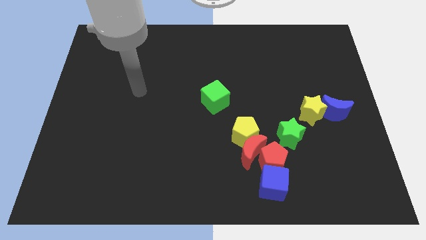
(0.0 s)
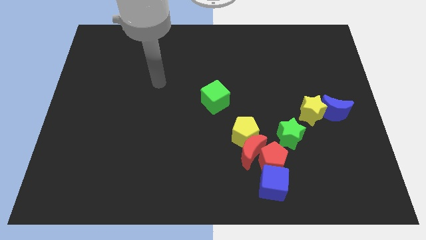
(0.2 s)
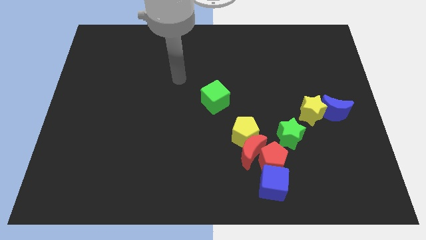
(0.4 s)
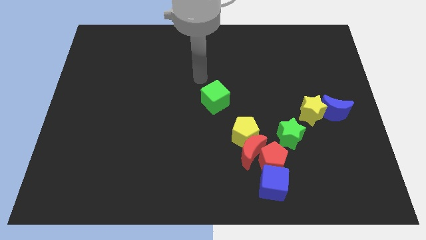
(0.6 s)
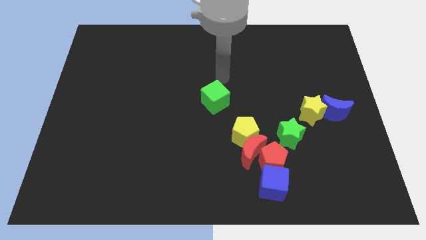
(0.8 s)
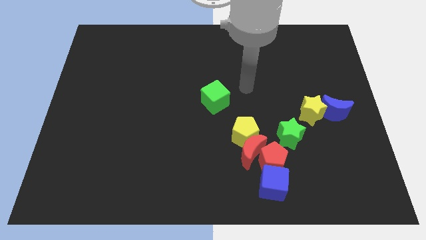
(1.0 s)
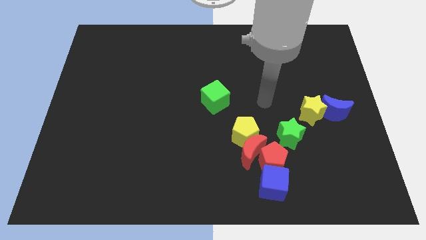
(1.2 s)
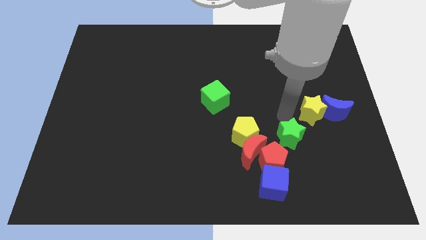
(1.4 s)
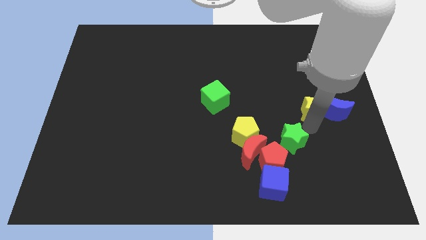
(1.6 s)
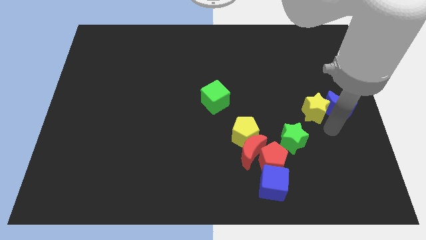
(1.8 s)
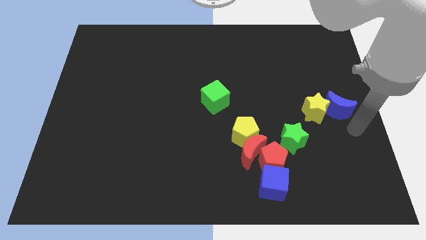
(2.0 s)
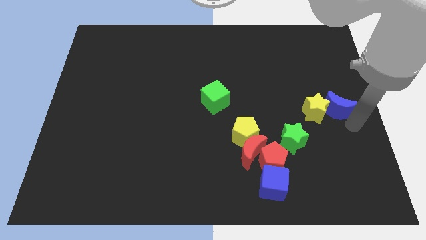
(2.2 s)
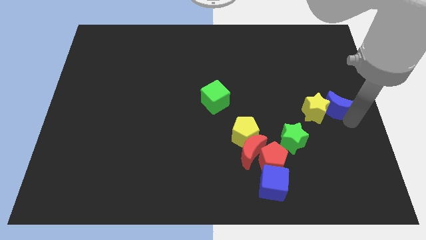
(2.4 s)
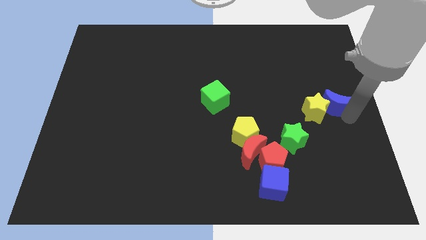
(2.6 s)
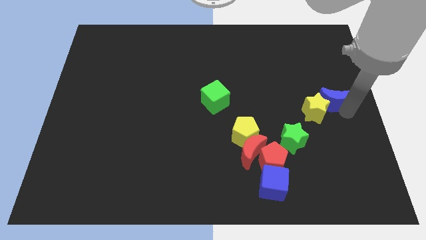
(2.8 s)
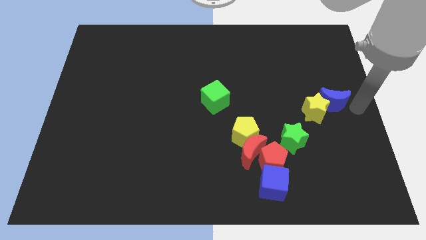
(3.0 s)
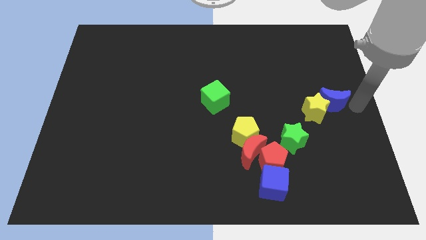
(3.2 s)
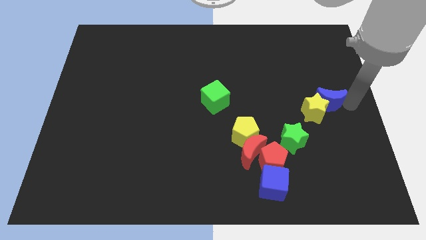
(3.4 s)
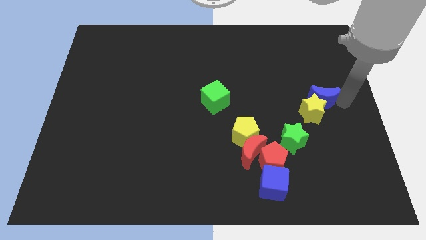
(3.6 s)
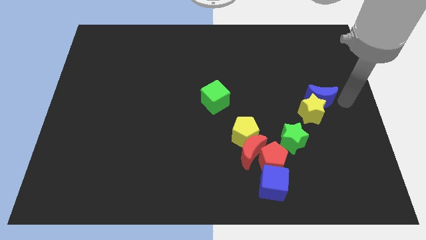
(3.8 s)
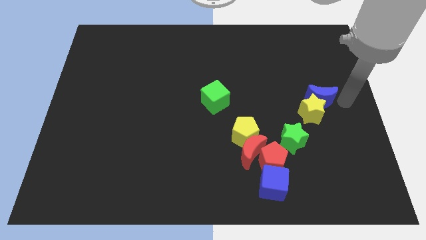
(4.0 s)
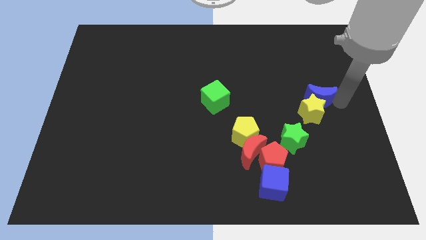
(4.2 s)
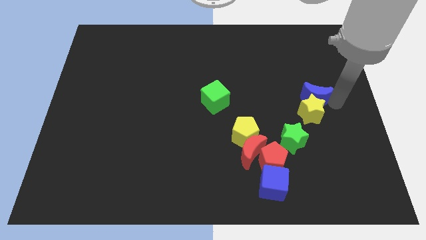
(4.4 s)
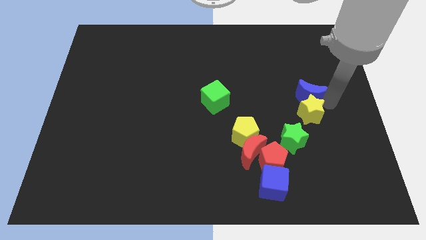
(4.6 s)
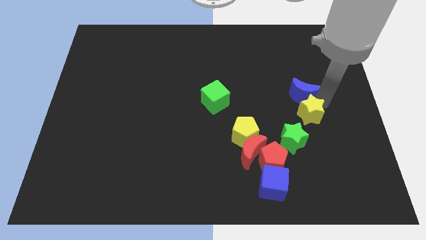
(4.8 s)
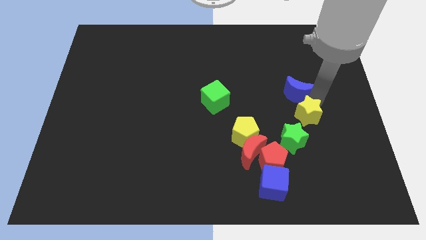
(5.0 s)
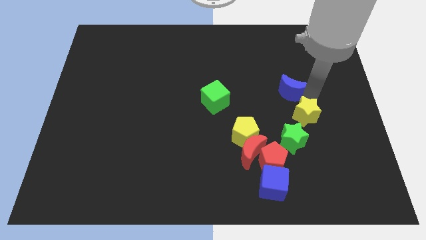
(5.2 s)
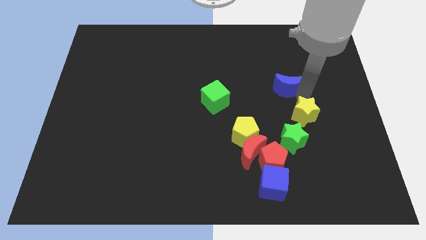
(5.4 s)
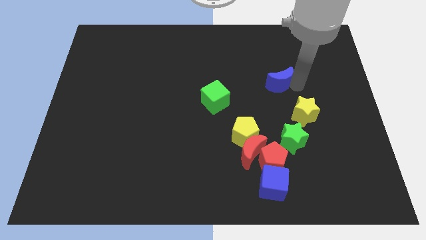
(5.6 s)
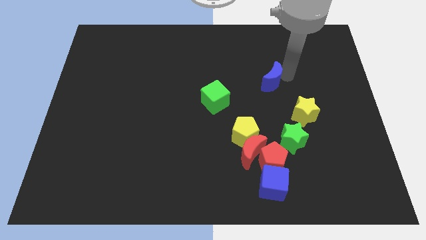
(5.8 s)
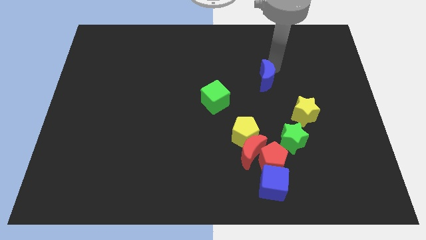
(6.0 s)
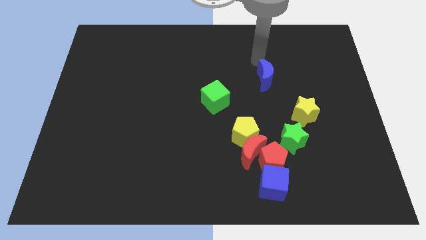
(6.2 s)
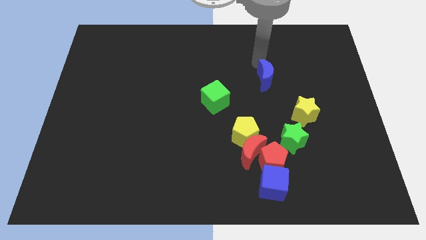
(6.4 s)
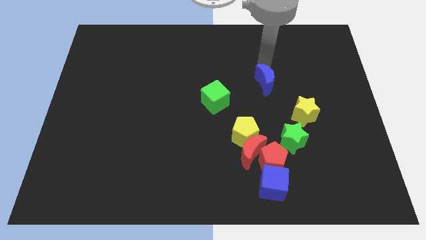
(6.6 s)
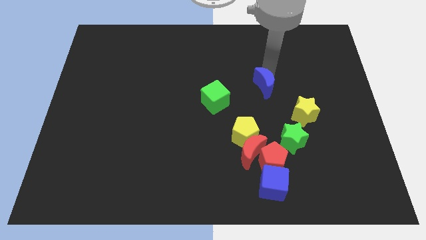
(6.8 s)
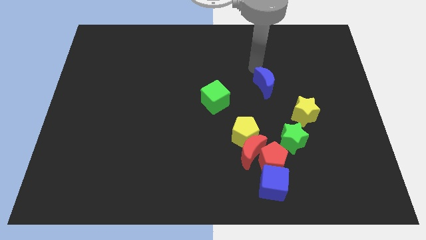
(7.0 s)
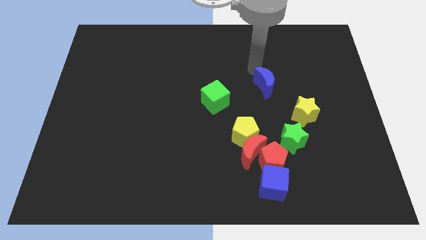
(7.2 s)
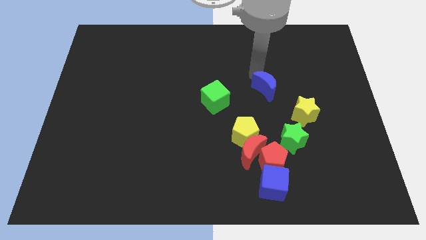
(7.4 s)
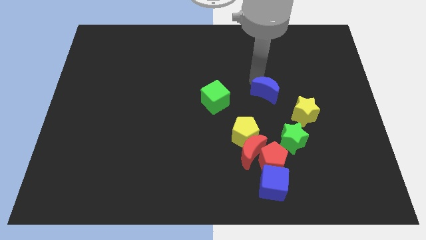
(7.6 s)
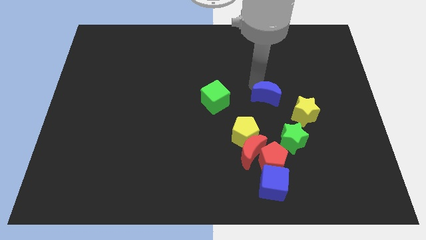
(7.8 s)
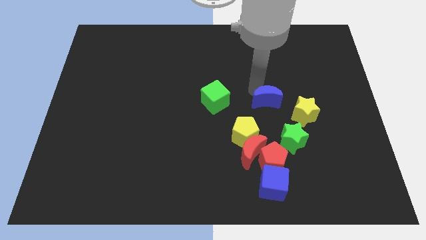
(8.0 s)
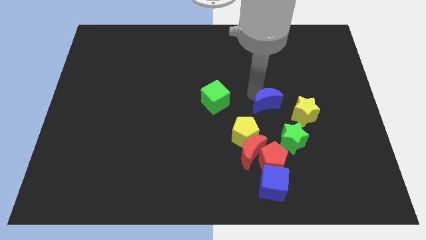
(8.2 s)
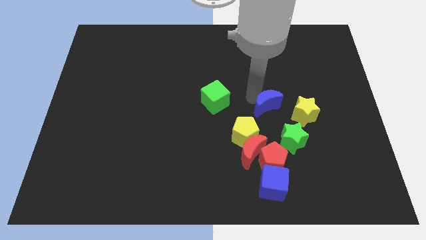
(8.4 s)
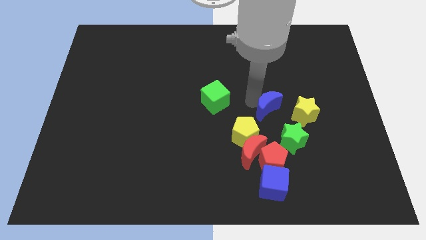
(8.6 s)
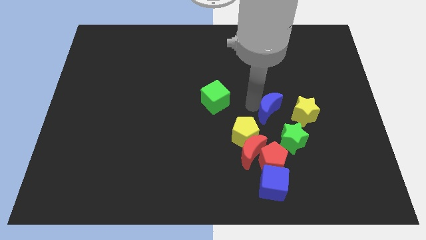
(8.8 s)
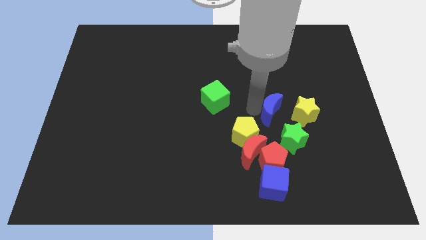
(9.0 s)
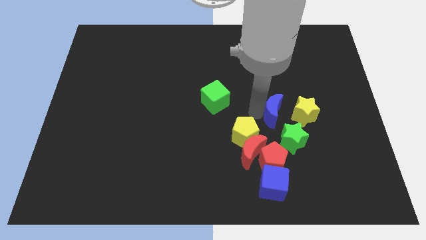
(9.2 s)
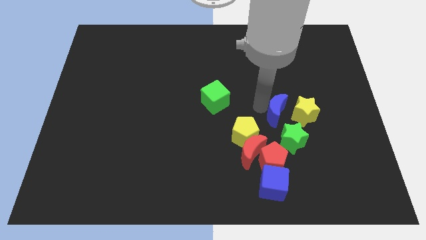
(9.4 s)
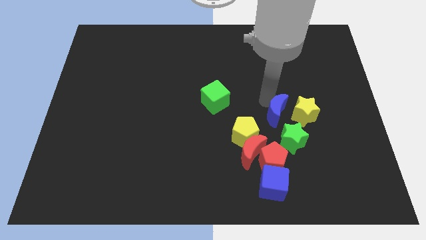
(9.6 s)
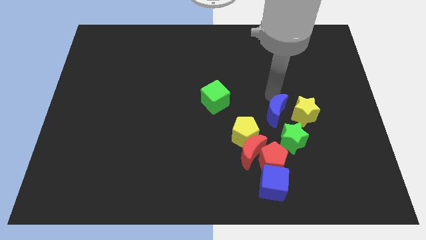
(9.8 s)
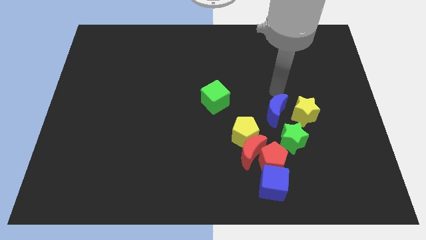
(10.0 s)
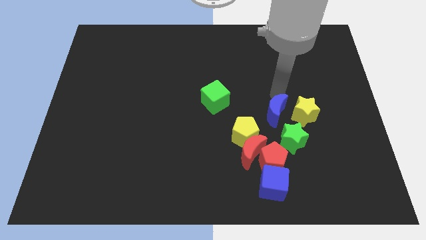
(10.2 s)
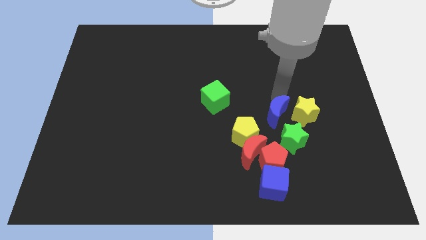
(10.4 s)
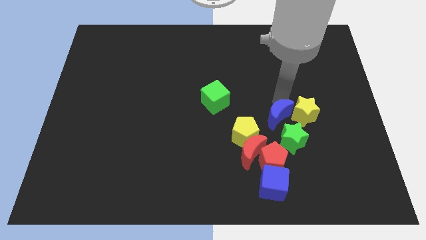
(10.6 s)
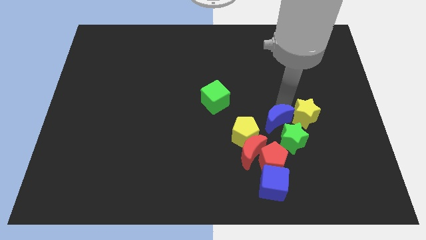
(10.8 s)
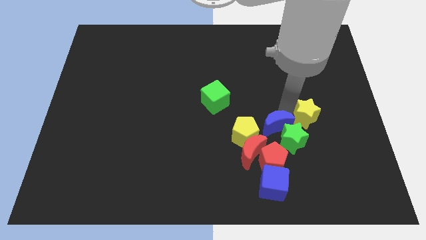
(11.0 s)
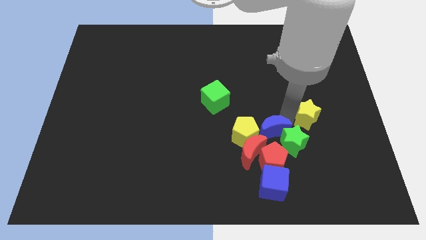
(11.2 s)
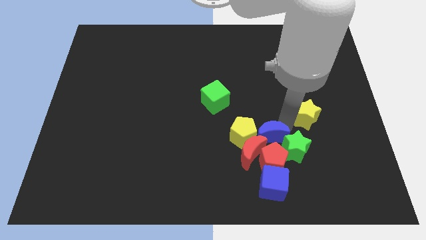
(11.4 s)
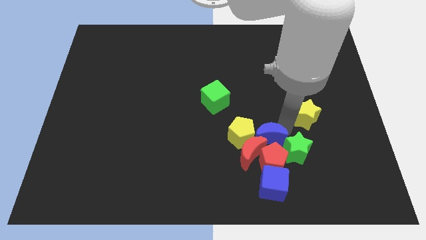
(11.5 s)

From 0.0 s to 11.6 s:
put the blue moon next to the red moon

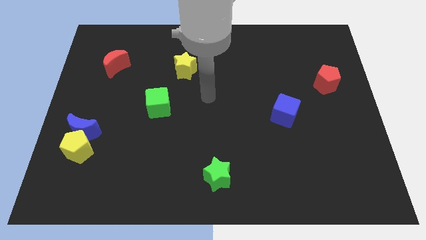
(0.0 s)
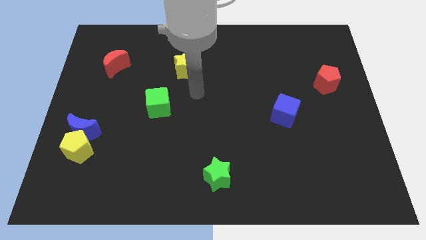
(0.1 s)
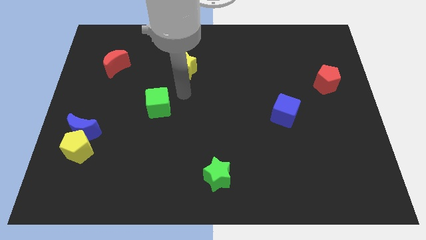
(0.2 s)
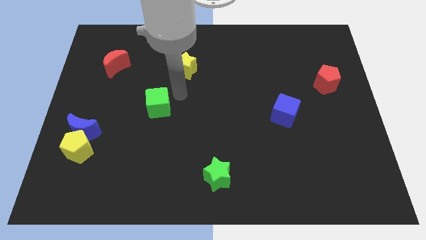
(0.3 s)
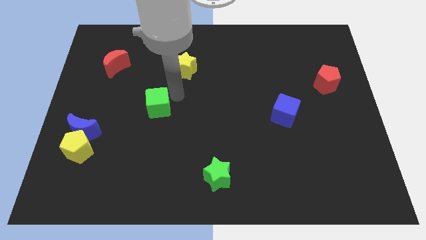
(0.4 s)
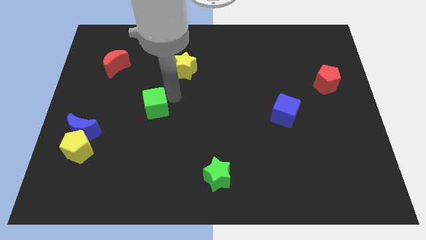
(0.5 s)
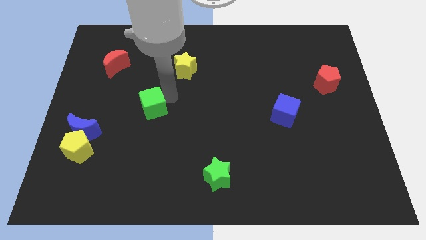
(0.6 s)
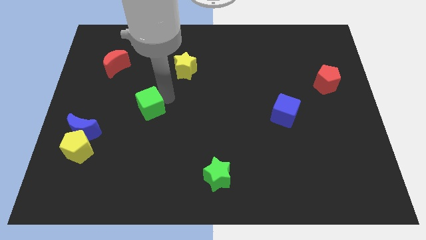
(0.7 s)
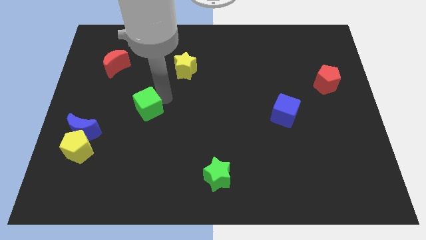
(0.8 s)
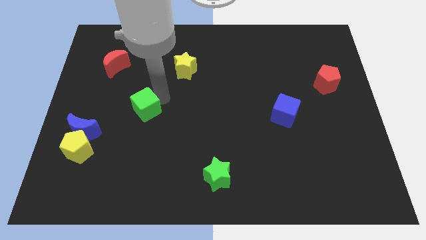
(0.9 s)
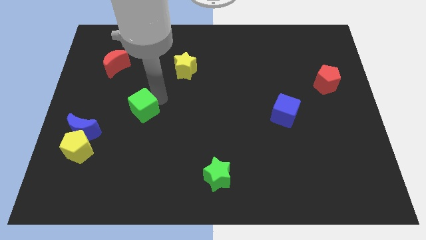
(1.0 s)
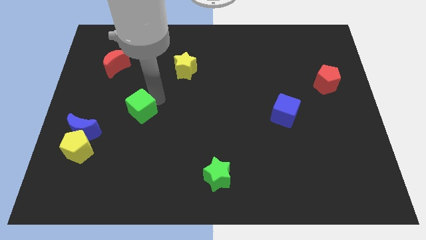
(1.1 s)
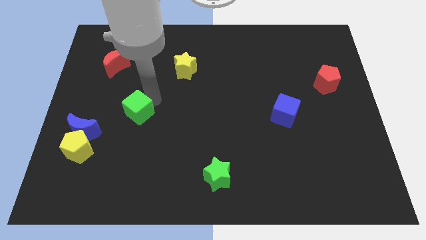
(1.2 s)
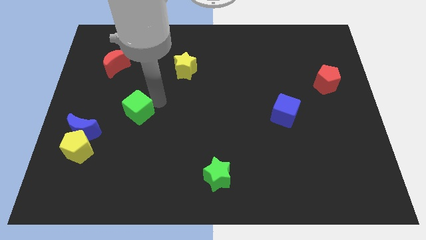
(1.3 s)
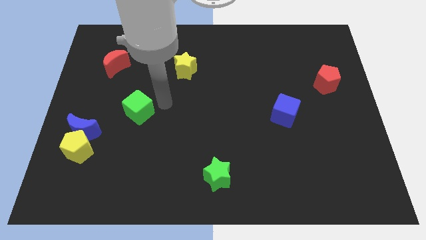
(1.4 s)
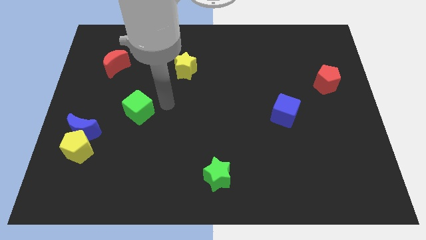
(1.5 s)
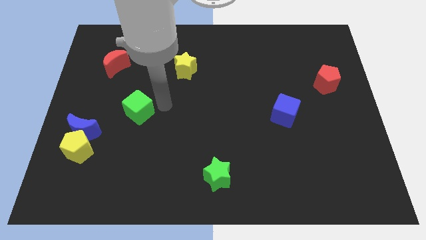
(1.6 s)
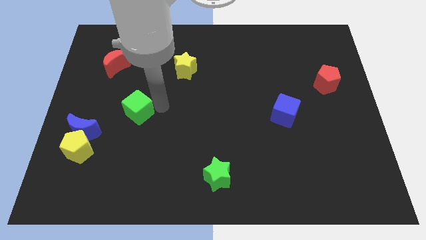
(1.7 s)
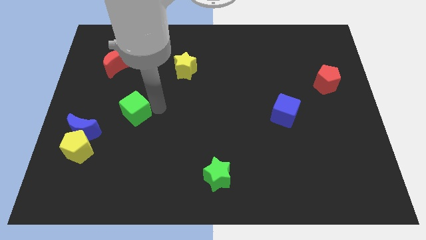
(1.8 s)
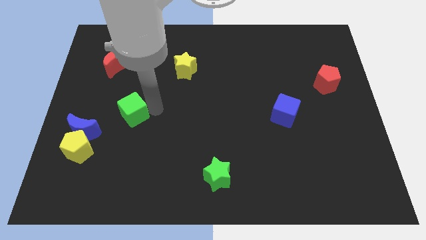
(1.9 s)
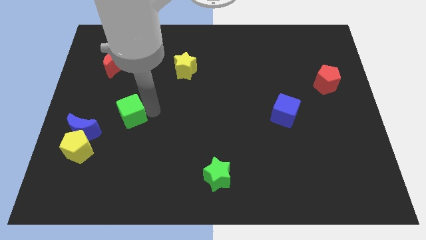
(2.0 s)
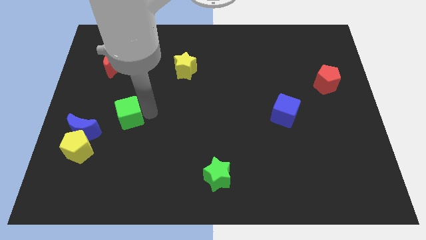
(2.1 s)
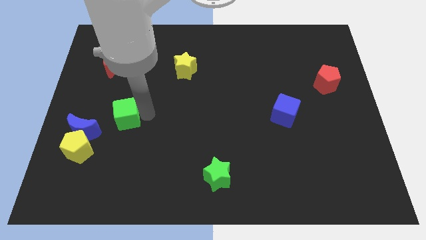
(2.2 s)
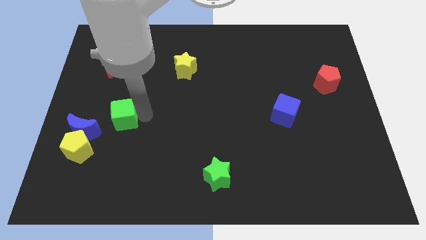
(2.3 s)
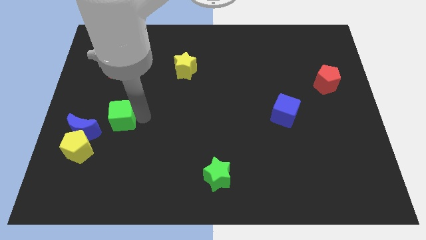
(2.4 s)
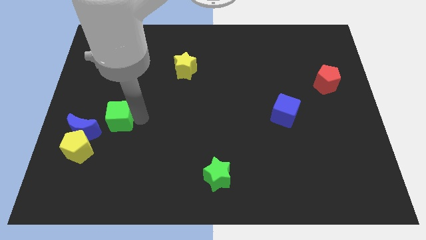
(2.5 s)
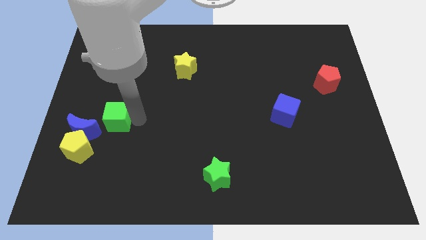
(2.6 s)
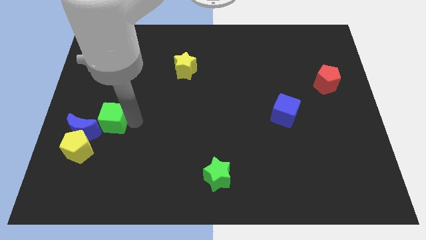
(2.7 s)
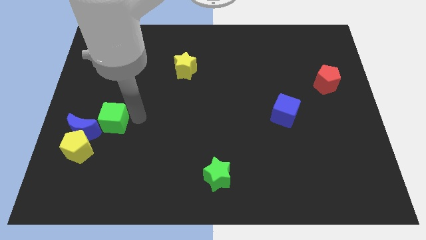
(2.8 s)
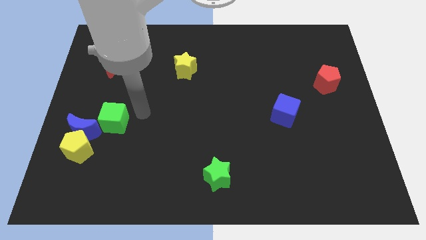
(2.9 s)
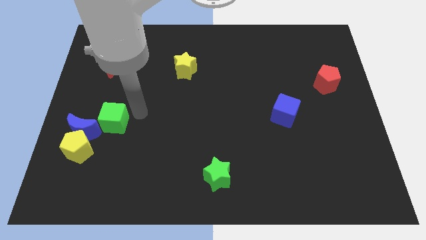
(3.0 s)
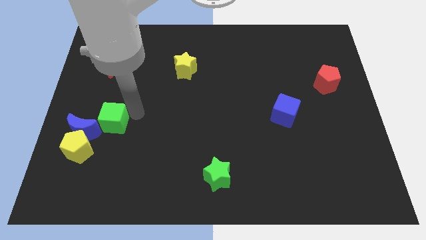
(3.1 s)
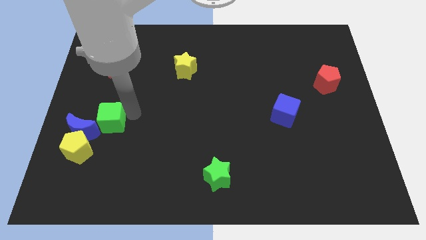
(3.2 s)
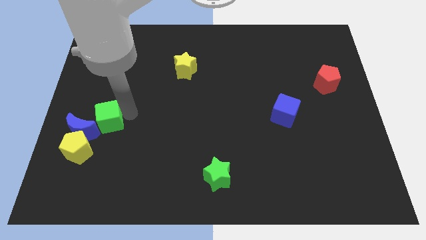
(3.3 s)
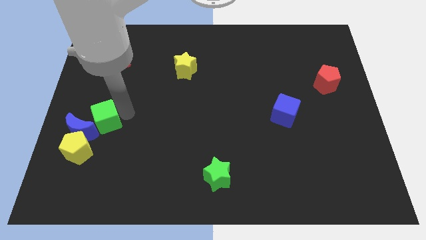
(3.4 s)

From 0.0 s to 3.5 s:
push the green cube close to the blue moon
